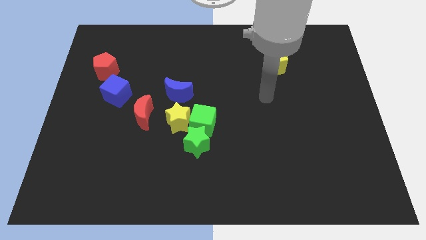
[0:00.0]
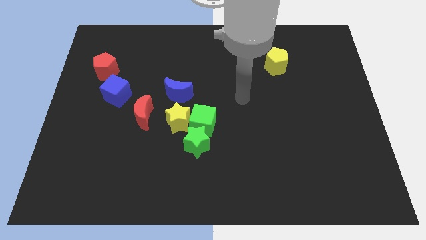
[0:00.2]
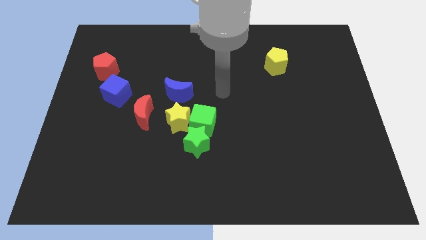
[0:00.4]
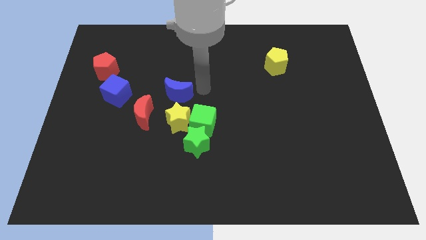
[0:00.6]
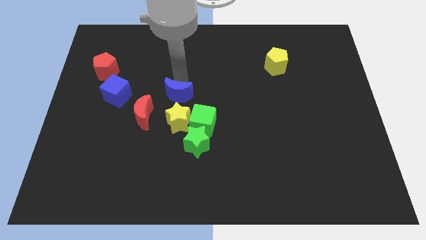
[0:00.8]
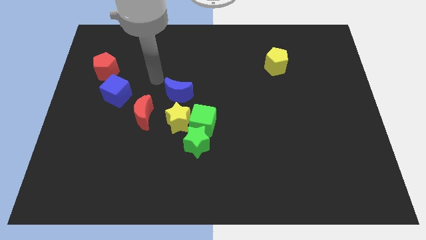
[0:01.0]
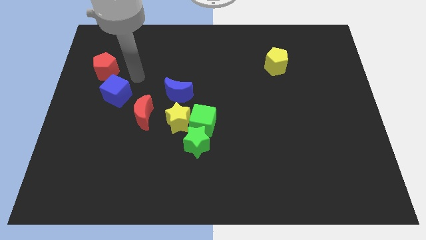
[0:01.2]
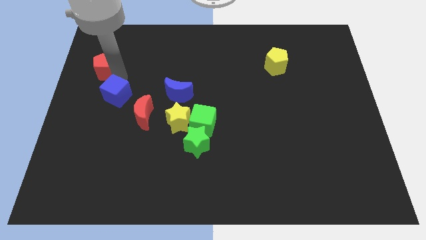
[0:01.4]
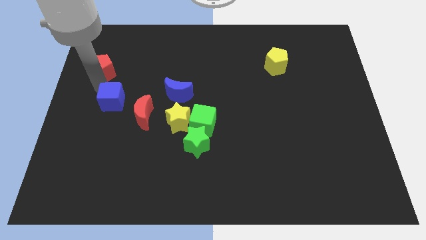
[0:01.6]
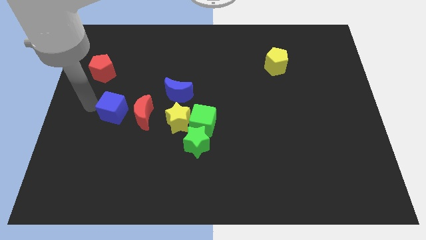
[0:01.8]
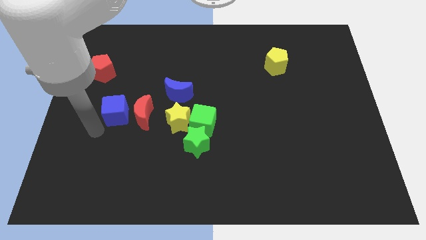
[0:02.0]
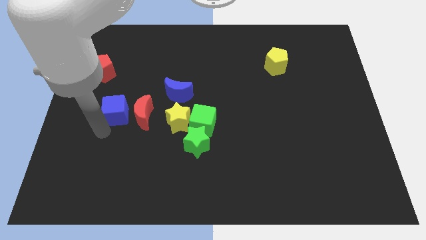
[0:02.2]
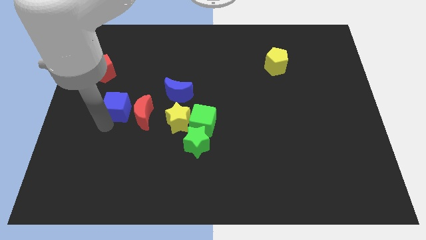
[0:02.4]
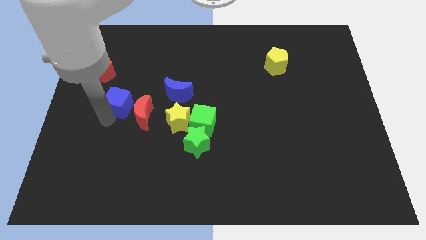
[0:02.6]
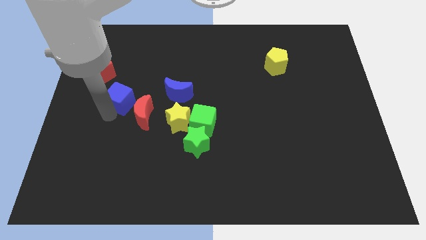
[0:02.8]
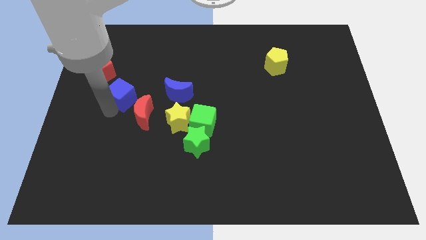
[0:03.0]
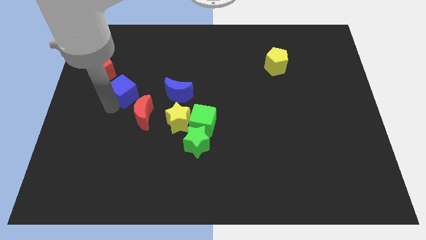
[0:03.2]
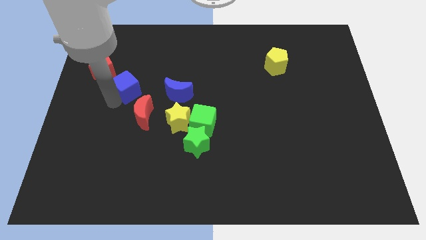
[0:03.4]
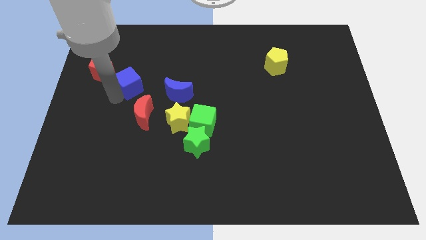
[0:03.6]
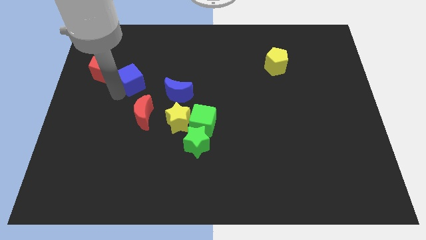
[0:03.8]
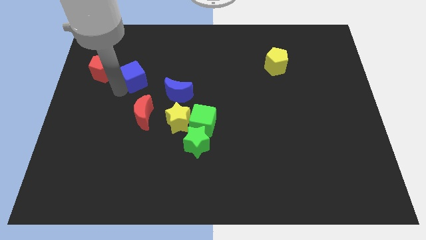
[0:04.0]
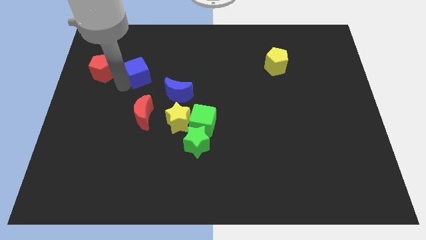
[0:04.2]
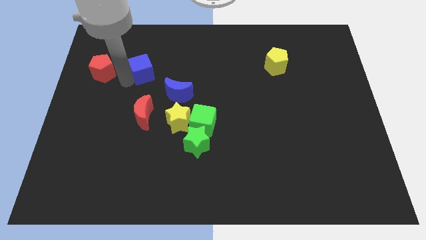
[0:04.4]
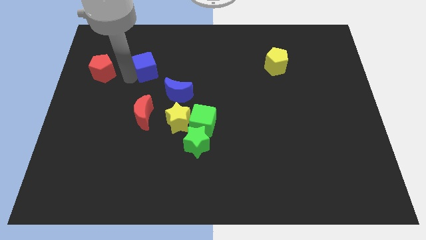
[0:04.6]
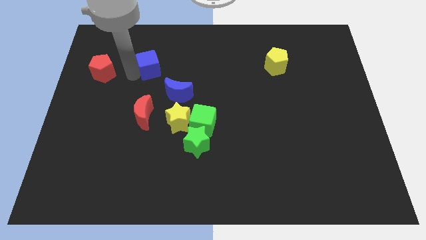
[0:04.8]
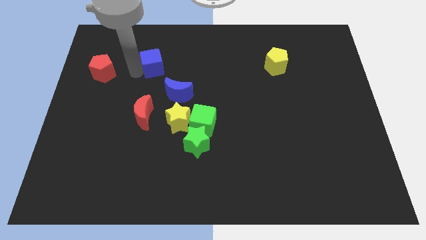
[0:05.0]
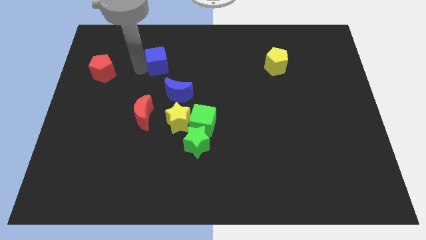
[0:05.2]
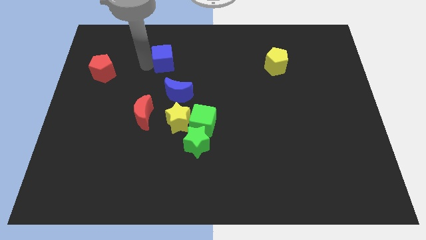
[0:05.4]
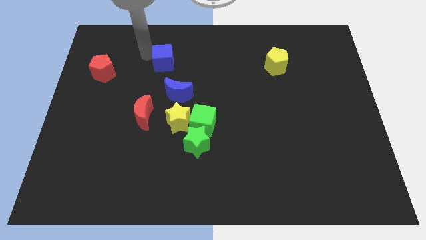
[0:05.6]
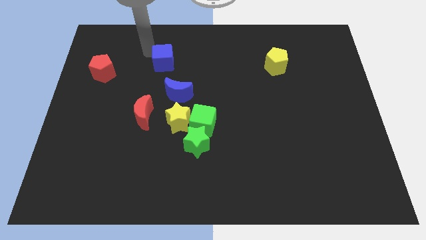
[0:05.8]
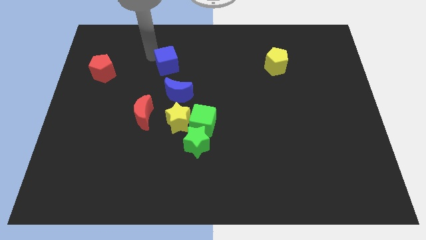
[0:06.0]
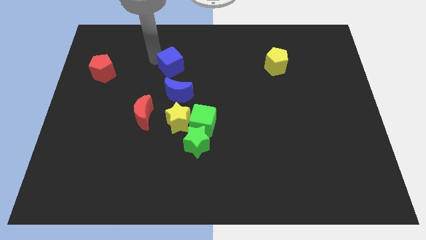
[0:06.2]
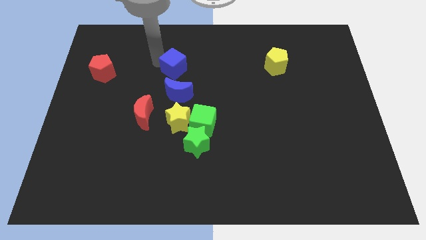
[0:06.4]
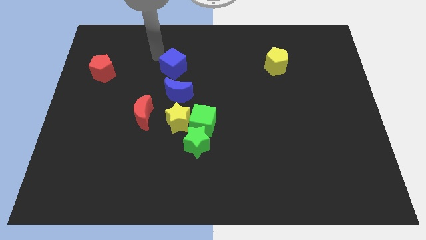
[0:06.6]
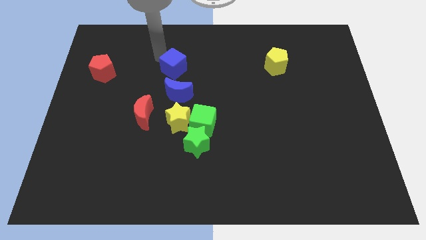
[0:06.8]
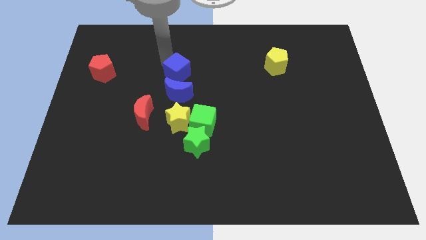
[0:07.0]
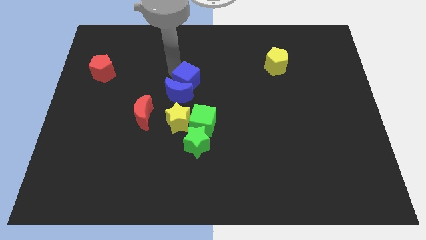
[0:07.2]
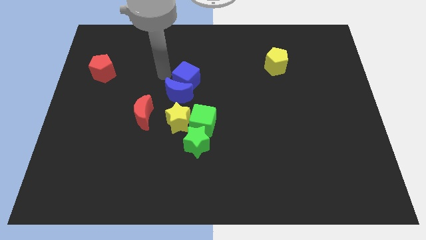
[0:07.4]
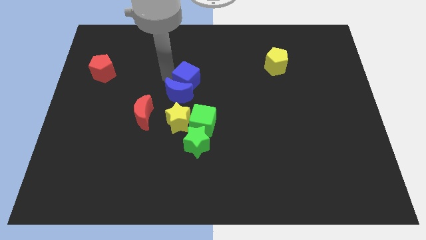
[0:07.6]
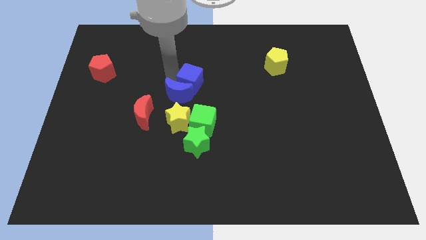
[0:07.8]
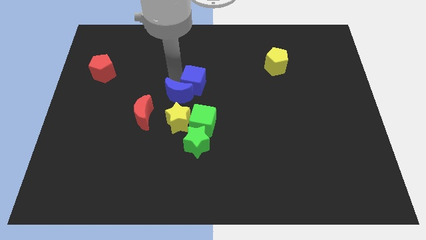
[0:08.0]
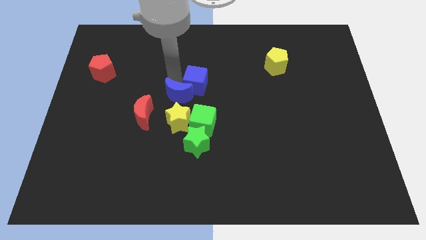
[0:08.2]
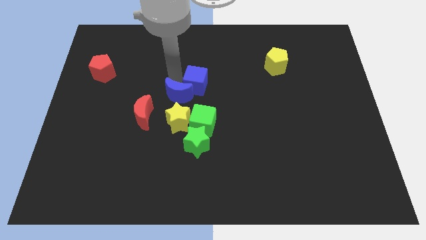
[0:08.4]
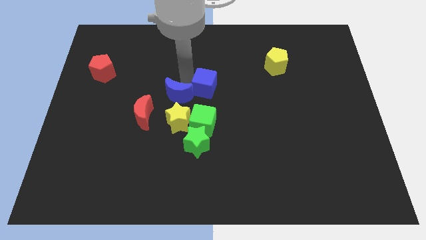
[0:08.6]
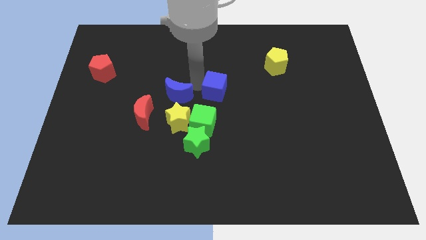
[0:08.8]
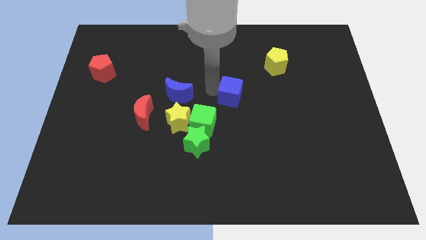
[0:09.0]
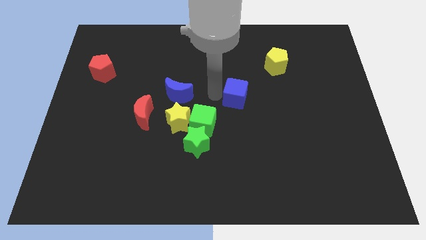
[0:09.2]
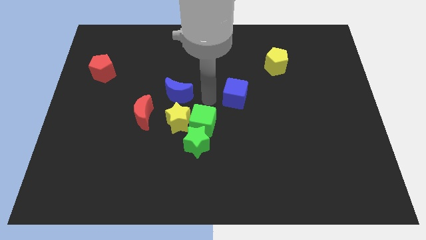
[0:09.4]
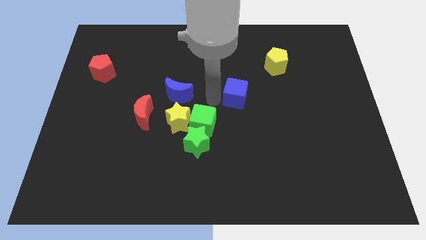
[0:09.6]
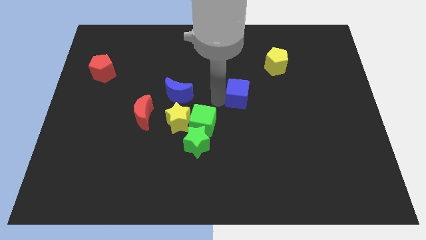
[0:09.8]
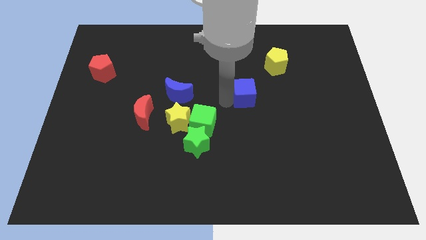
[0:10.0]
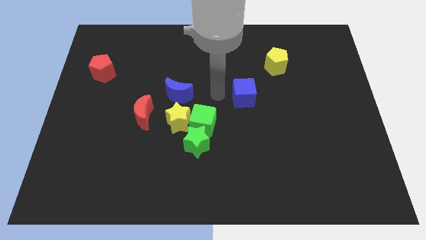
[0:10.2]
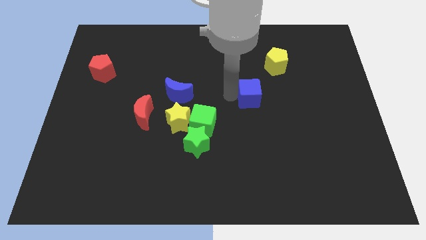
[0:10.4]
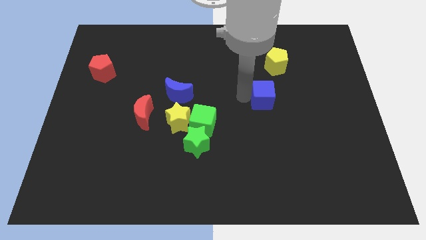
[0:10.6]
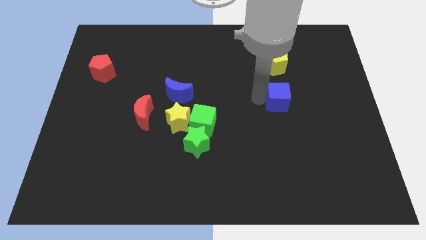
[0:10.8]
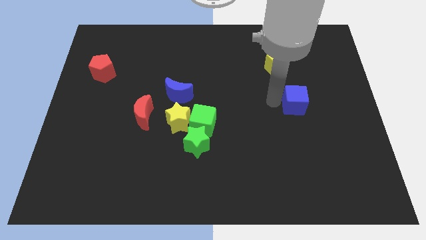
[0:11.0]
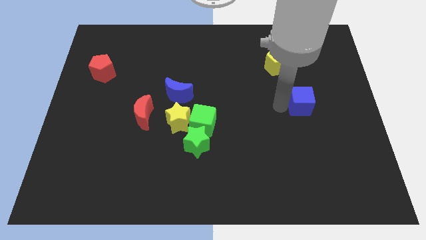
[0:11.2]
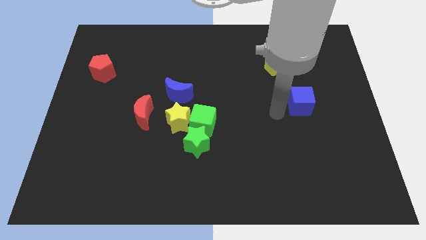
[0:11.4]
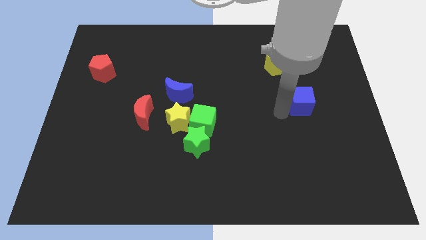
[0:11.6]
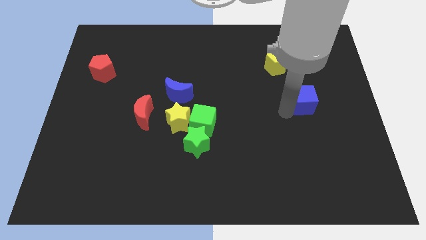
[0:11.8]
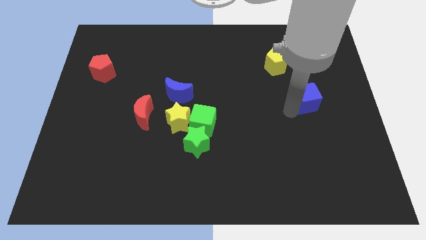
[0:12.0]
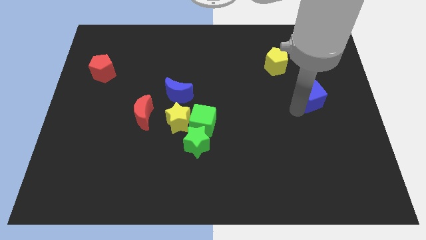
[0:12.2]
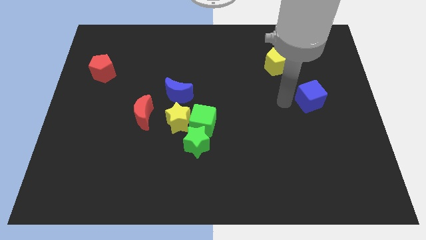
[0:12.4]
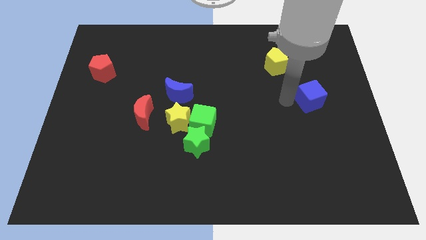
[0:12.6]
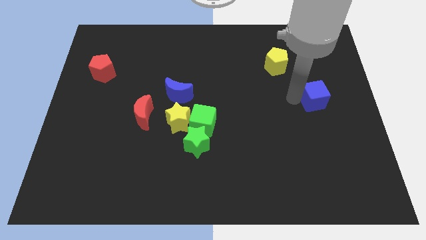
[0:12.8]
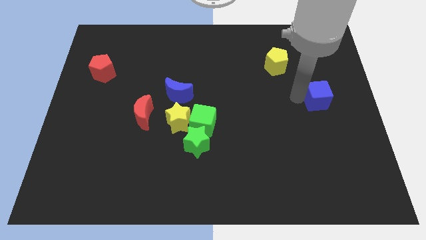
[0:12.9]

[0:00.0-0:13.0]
put the blue cube to the right side of the board
